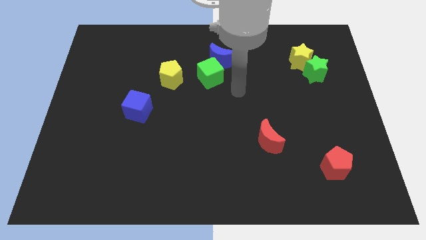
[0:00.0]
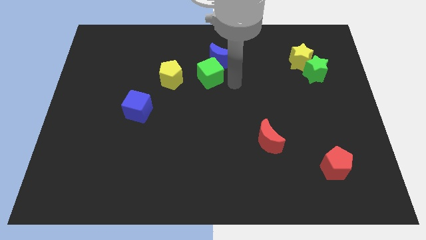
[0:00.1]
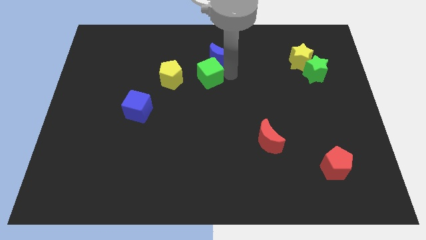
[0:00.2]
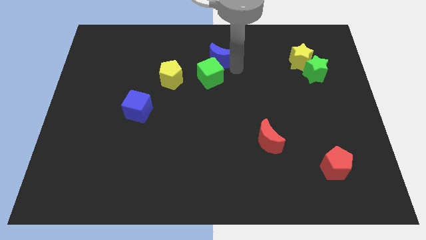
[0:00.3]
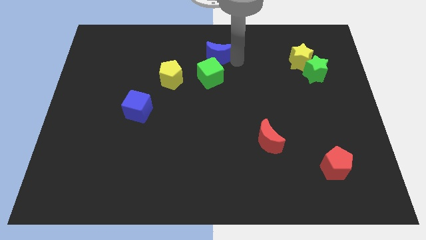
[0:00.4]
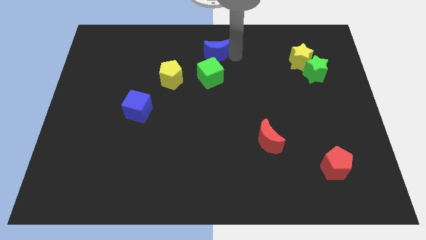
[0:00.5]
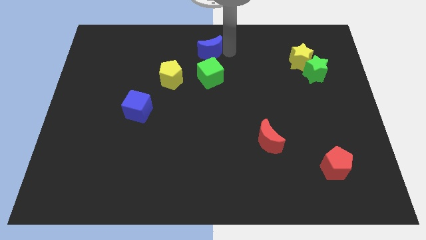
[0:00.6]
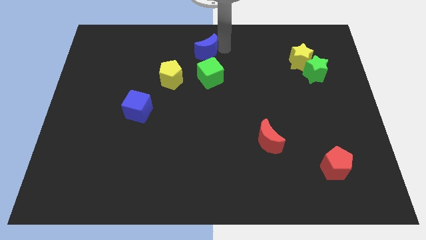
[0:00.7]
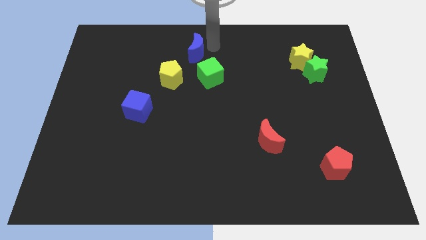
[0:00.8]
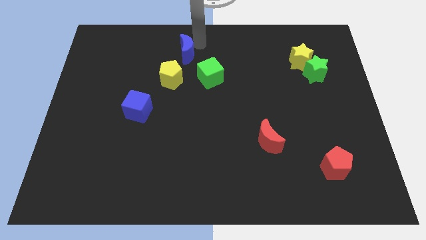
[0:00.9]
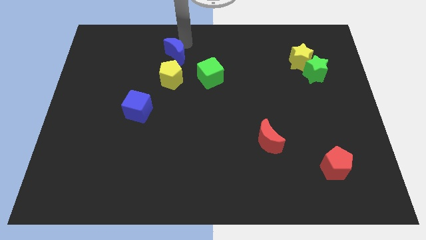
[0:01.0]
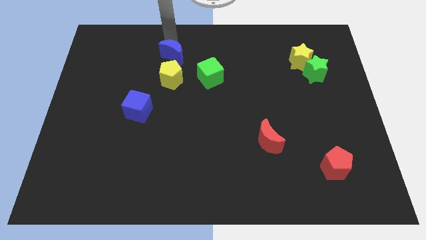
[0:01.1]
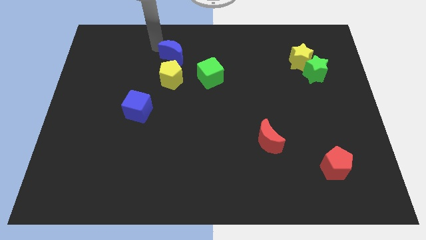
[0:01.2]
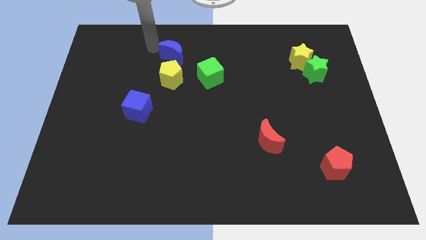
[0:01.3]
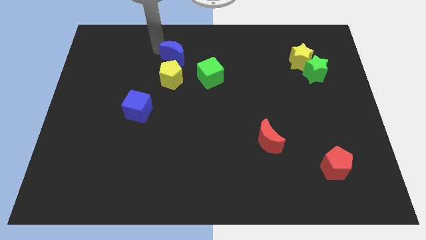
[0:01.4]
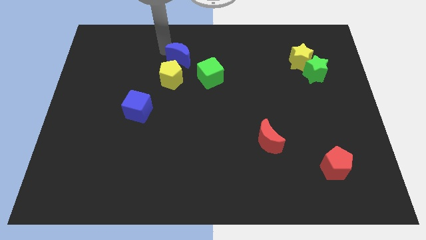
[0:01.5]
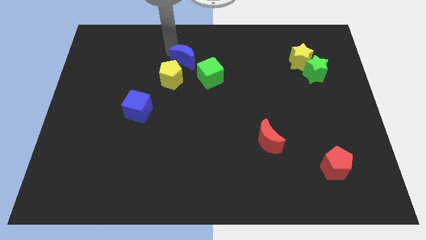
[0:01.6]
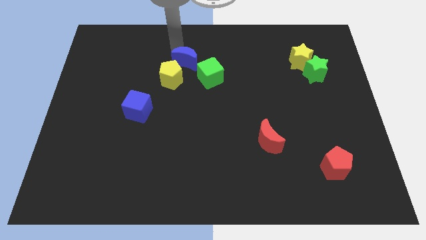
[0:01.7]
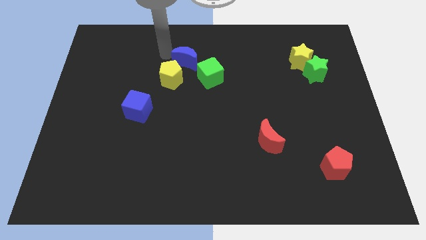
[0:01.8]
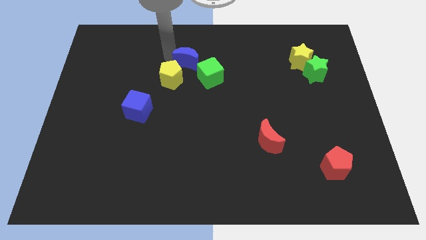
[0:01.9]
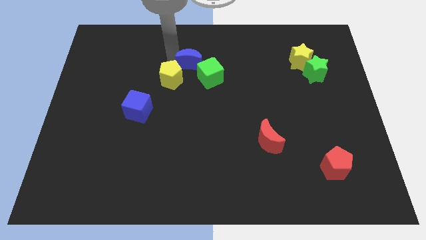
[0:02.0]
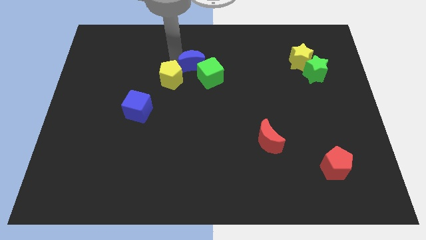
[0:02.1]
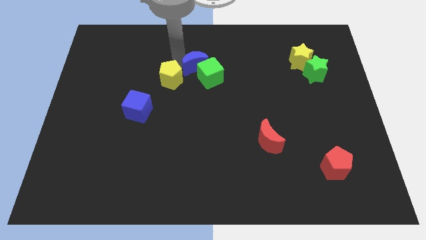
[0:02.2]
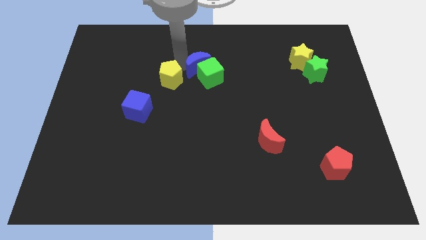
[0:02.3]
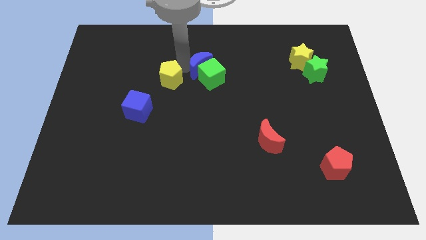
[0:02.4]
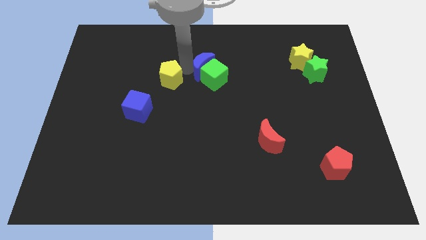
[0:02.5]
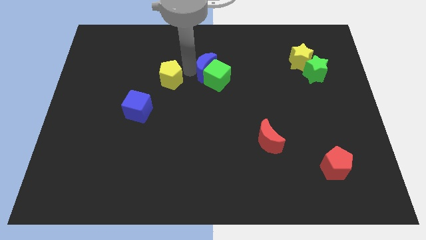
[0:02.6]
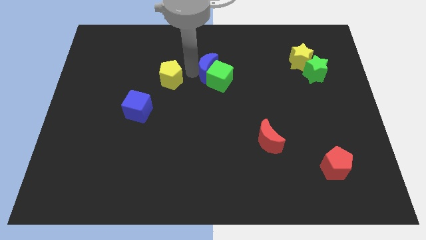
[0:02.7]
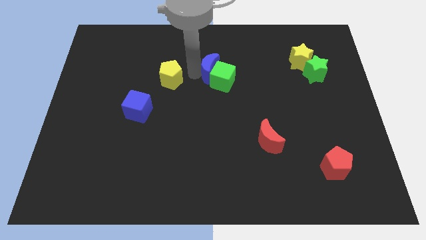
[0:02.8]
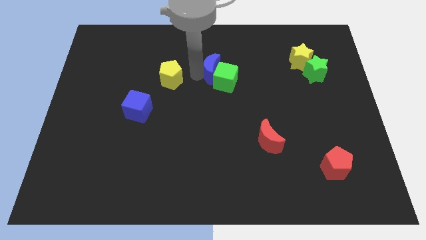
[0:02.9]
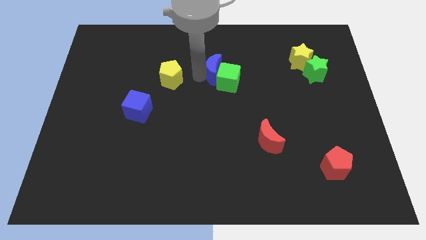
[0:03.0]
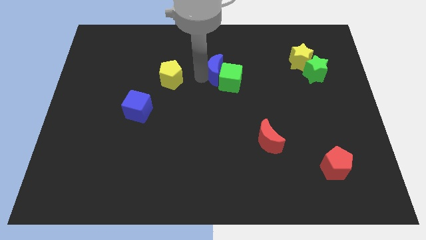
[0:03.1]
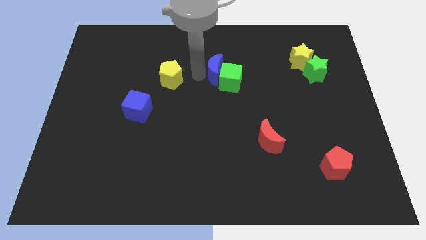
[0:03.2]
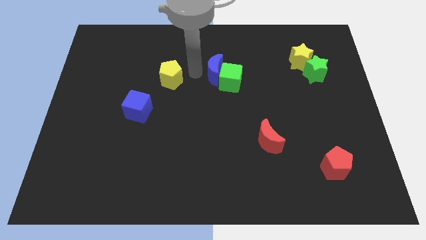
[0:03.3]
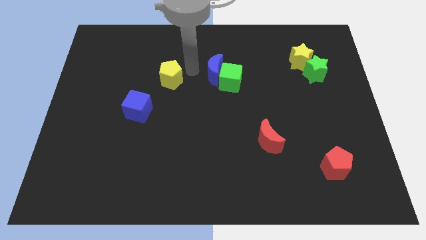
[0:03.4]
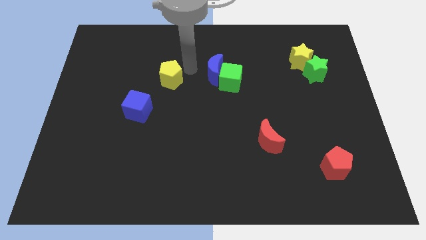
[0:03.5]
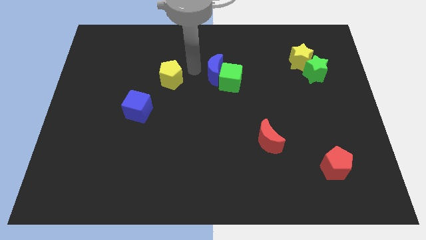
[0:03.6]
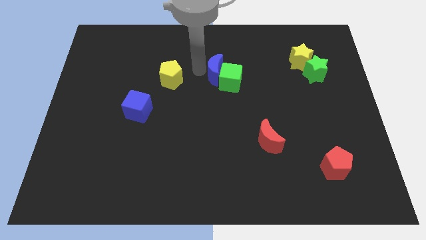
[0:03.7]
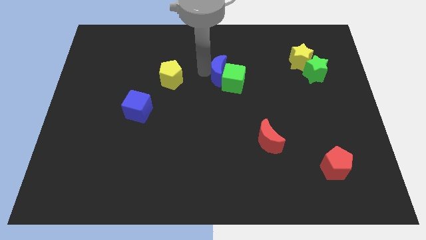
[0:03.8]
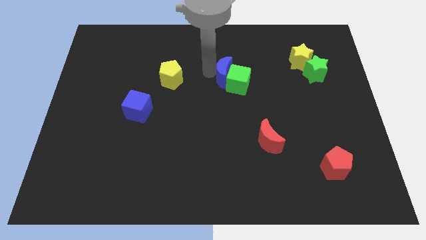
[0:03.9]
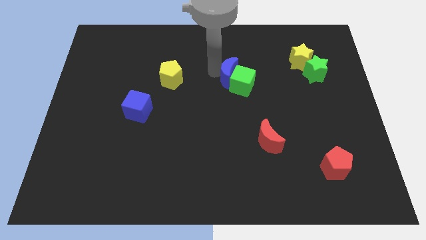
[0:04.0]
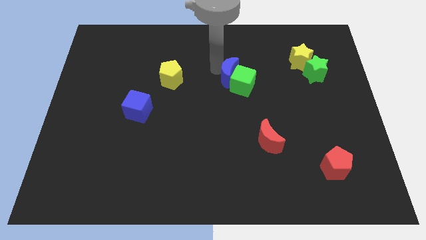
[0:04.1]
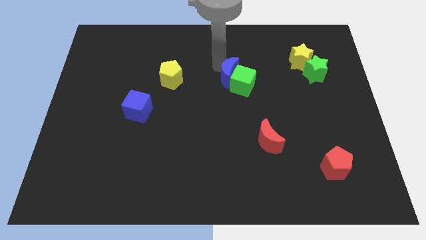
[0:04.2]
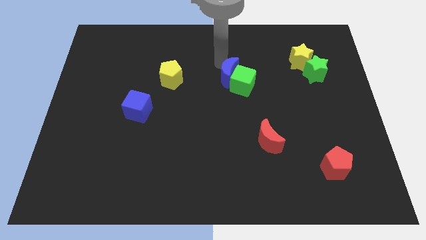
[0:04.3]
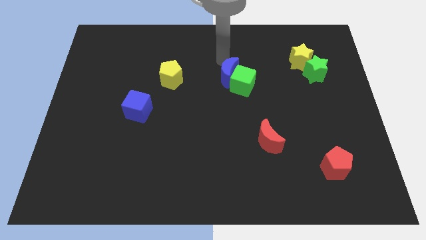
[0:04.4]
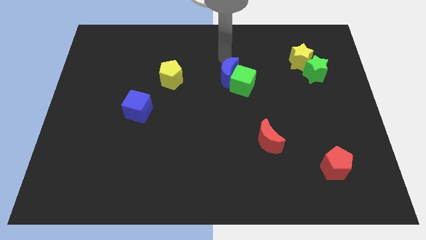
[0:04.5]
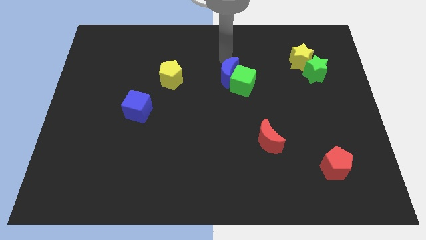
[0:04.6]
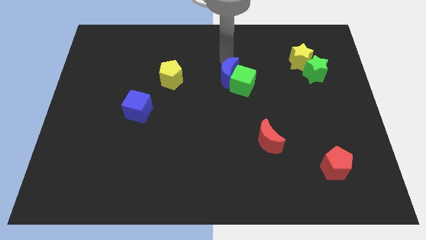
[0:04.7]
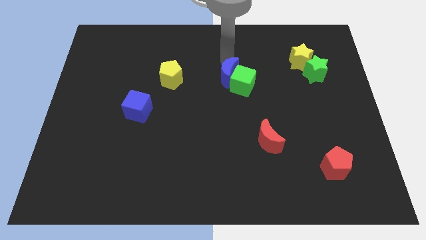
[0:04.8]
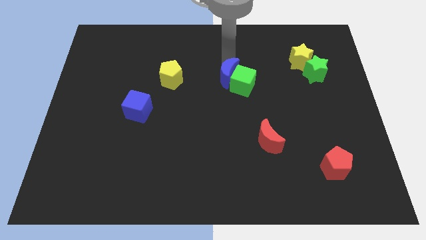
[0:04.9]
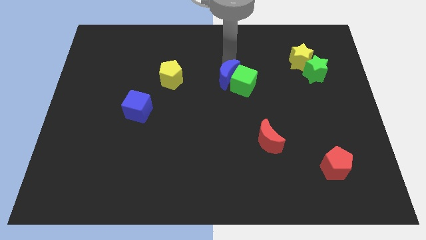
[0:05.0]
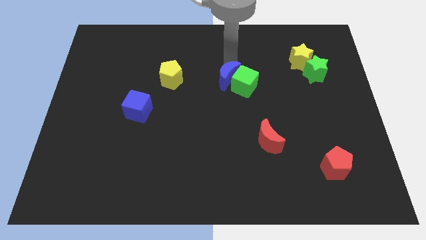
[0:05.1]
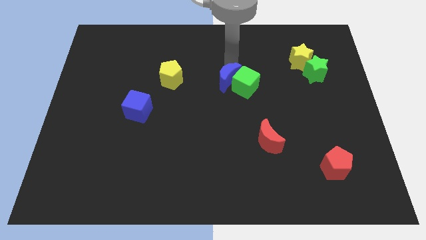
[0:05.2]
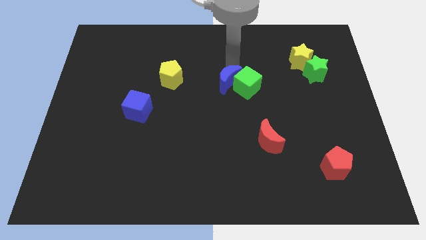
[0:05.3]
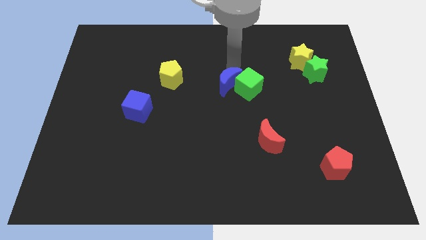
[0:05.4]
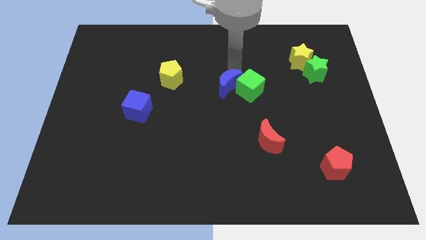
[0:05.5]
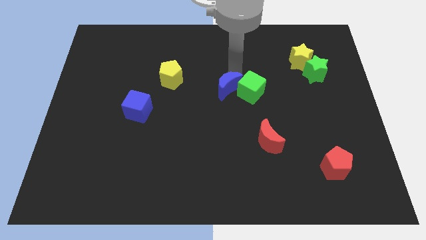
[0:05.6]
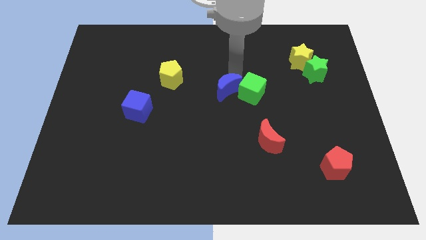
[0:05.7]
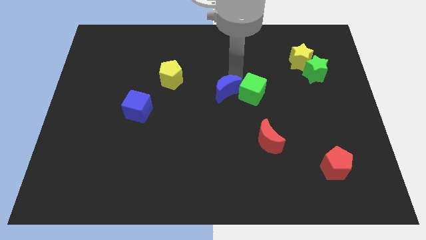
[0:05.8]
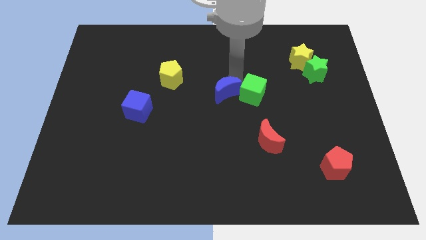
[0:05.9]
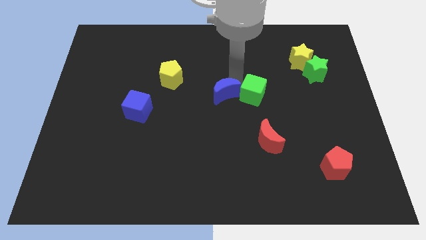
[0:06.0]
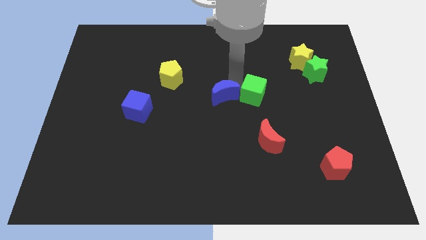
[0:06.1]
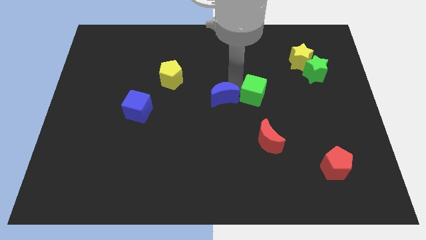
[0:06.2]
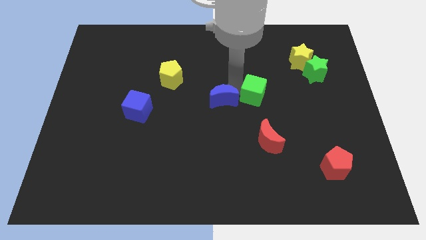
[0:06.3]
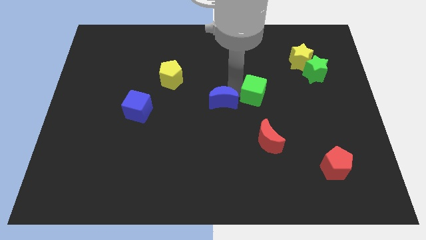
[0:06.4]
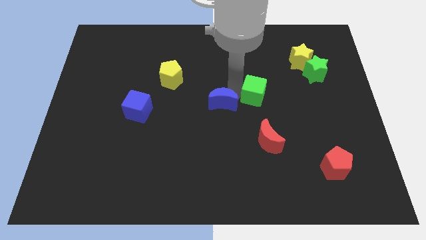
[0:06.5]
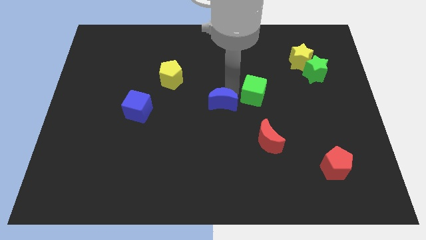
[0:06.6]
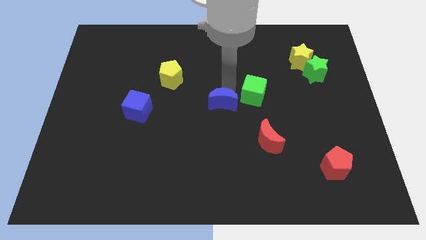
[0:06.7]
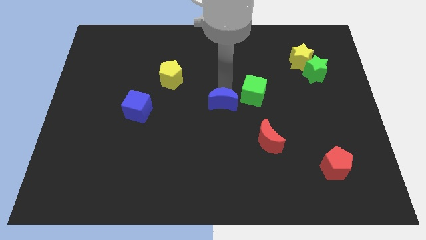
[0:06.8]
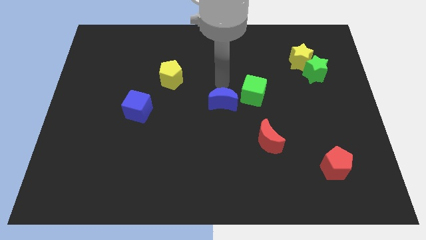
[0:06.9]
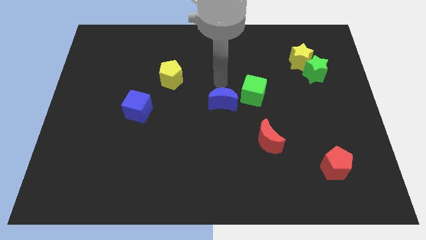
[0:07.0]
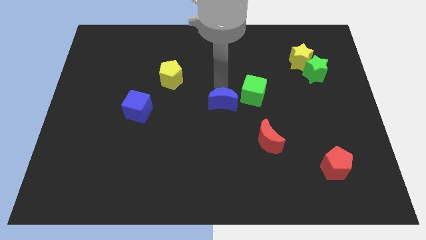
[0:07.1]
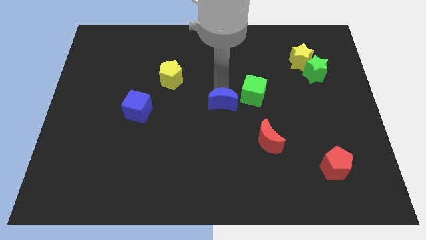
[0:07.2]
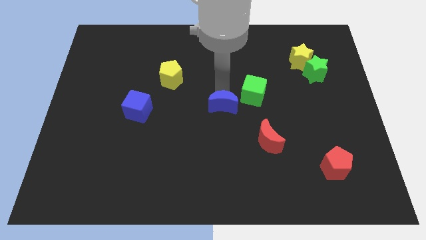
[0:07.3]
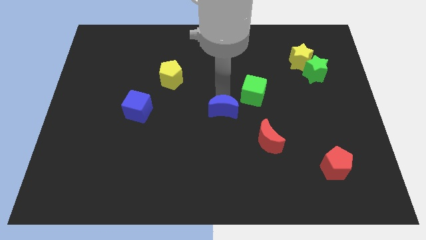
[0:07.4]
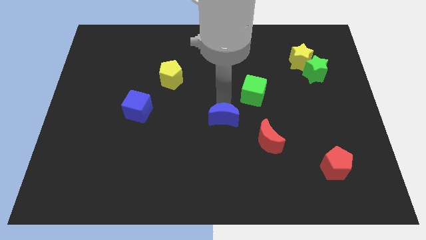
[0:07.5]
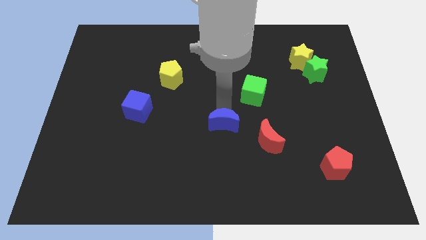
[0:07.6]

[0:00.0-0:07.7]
slide the blue moon down

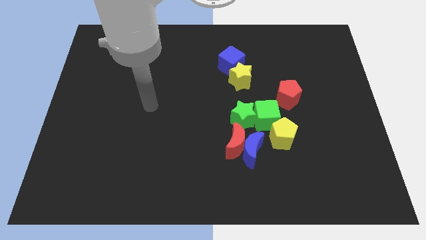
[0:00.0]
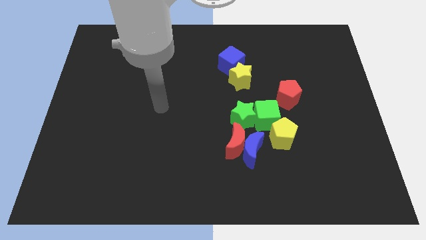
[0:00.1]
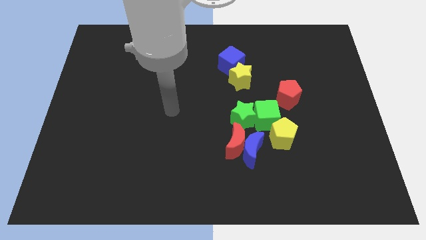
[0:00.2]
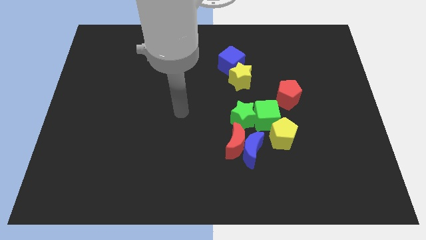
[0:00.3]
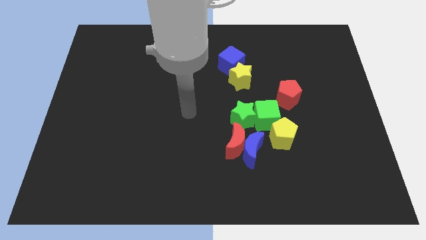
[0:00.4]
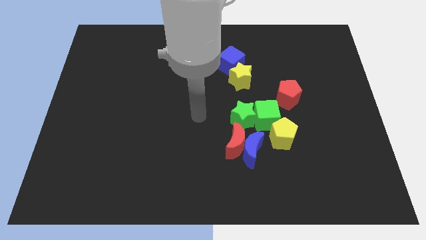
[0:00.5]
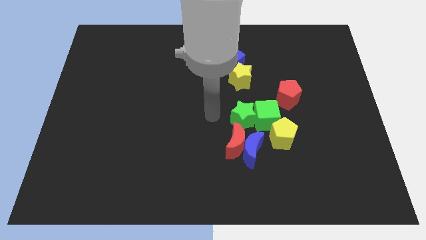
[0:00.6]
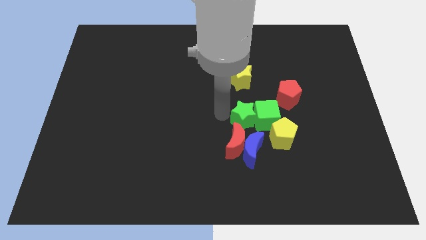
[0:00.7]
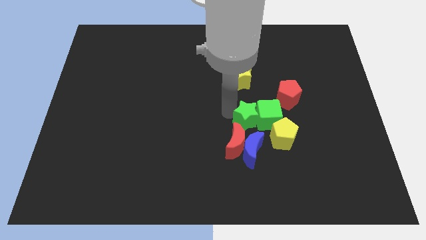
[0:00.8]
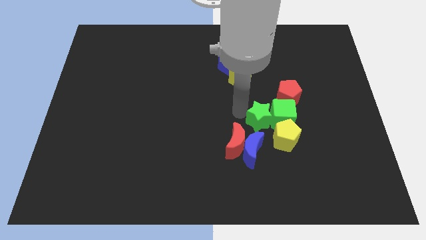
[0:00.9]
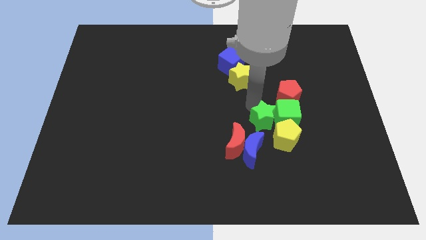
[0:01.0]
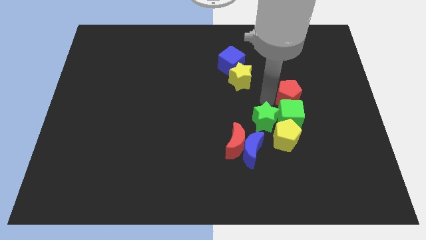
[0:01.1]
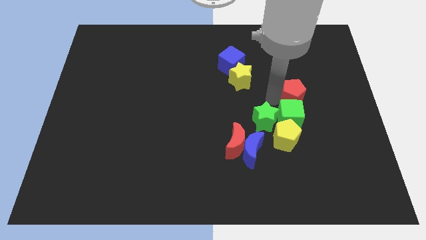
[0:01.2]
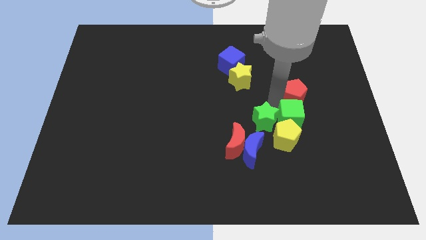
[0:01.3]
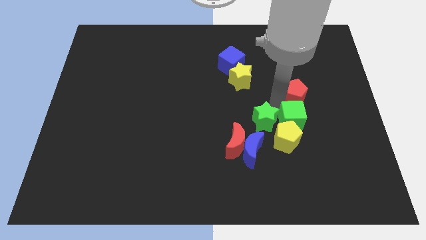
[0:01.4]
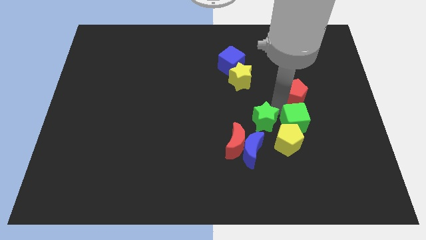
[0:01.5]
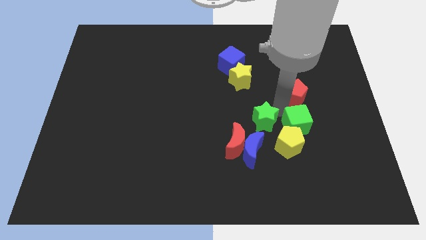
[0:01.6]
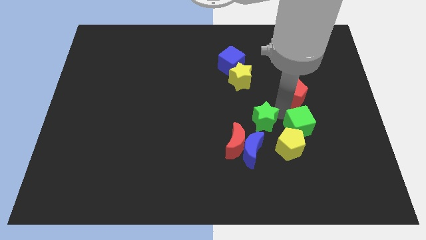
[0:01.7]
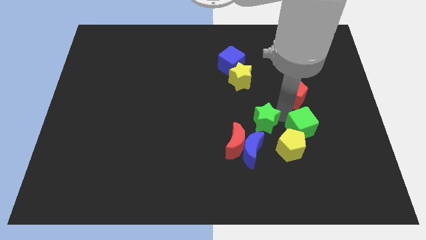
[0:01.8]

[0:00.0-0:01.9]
move the green cube a little down and then to the right
